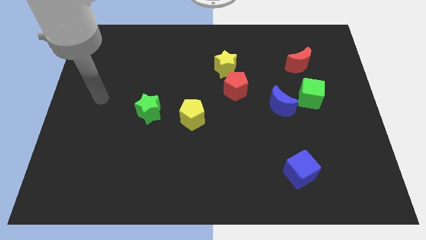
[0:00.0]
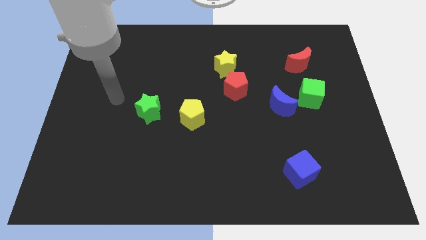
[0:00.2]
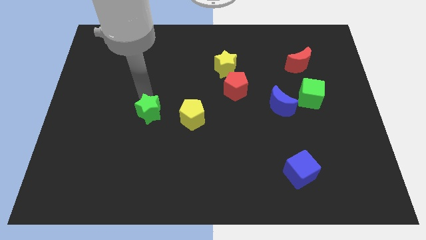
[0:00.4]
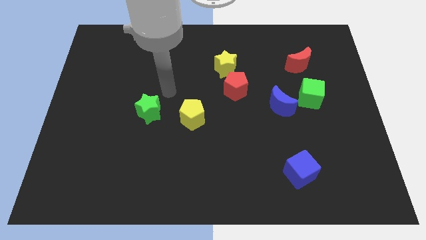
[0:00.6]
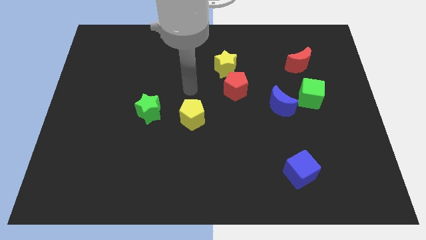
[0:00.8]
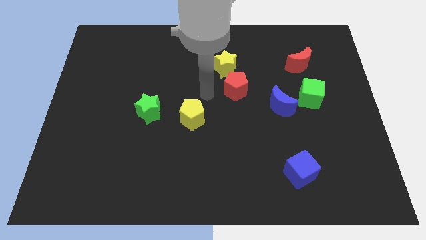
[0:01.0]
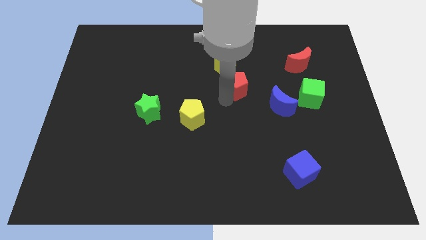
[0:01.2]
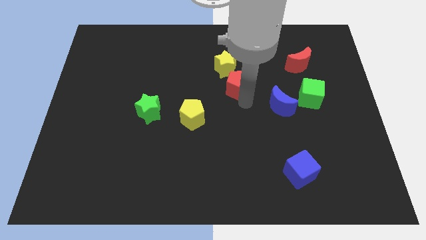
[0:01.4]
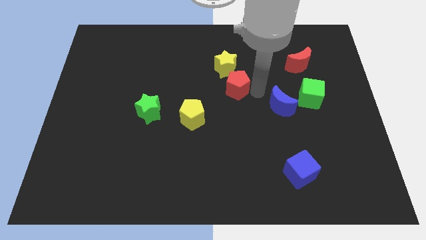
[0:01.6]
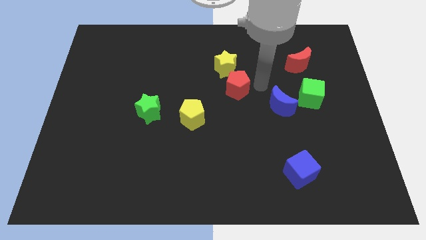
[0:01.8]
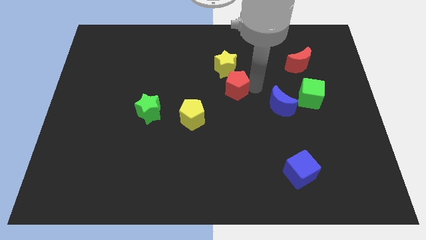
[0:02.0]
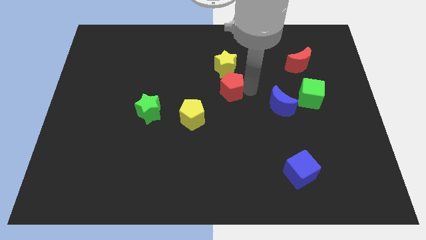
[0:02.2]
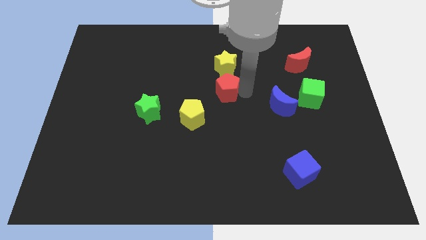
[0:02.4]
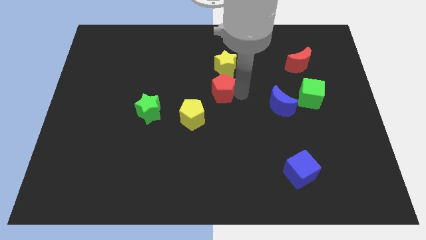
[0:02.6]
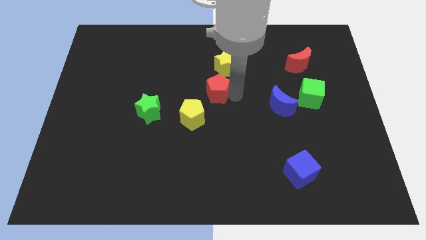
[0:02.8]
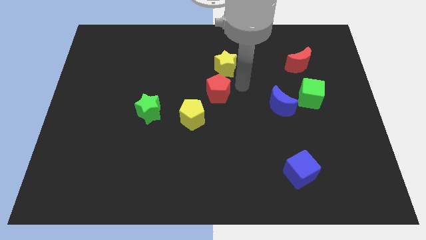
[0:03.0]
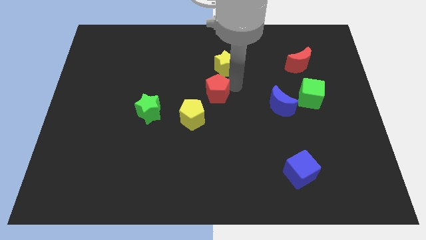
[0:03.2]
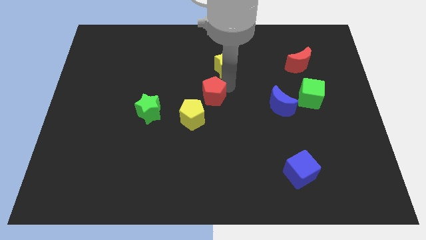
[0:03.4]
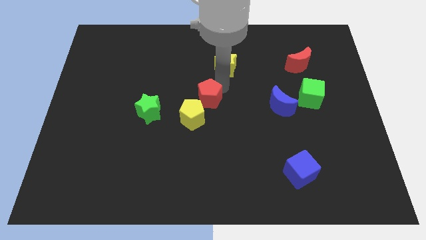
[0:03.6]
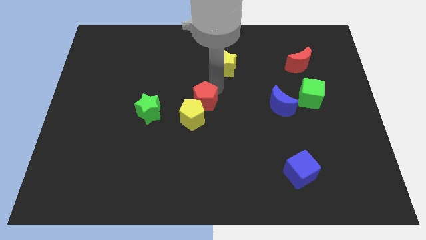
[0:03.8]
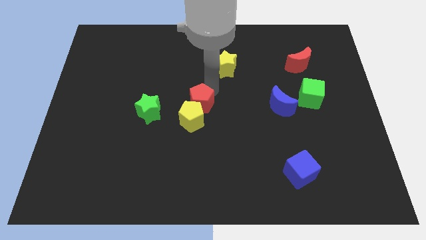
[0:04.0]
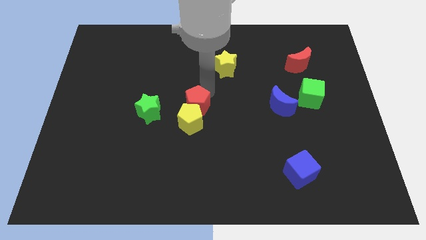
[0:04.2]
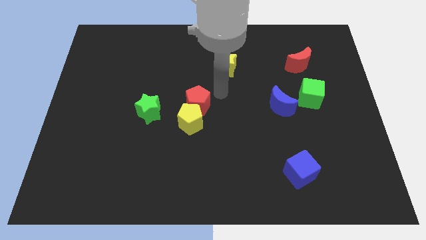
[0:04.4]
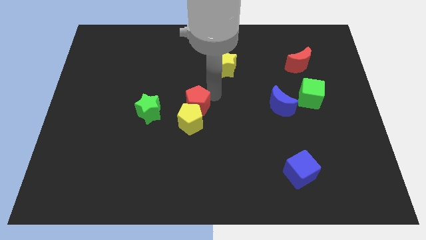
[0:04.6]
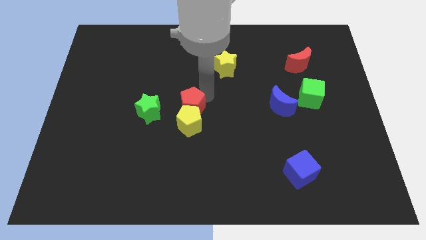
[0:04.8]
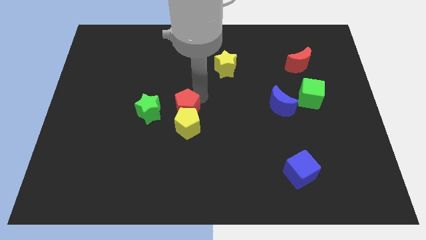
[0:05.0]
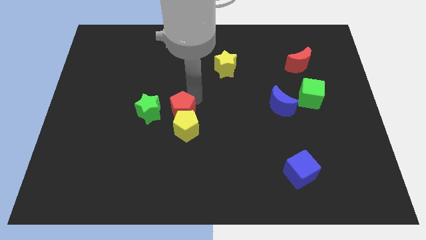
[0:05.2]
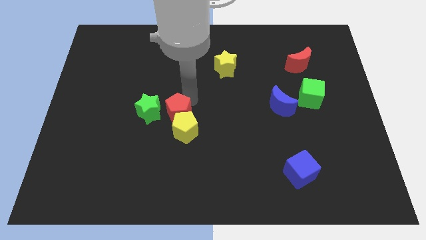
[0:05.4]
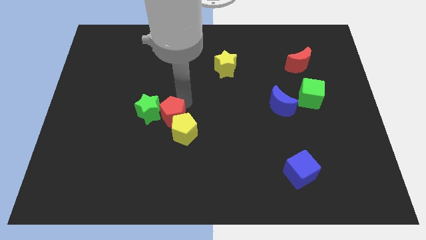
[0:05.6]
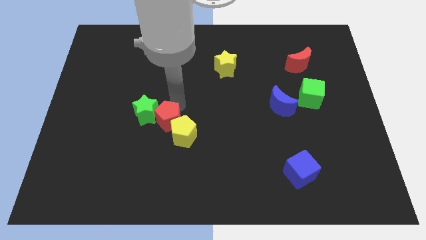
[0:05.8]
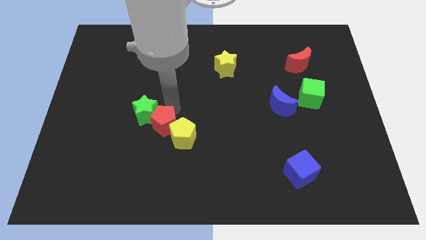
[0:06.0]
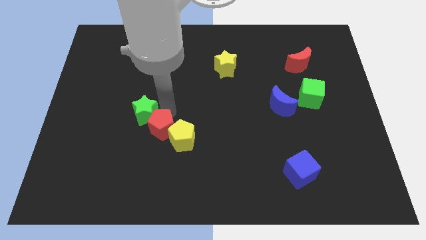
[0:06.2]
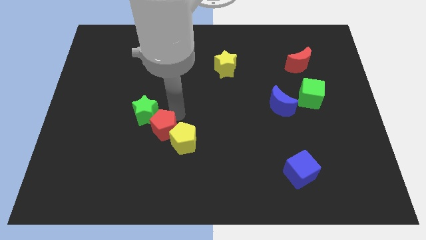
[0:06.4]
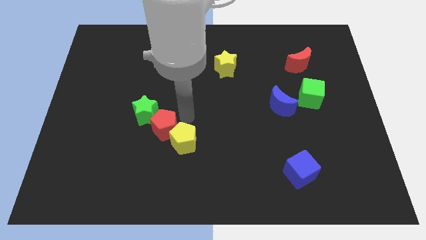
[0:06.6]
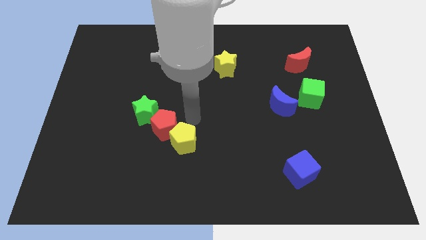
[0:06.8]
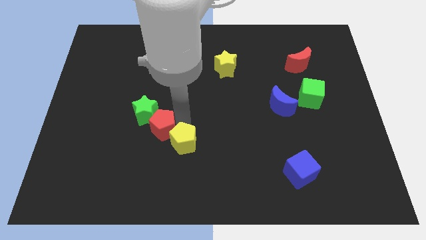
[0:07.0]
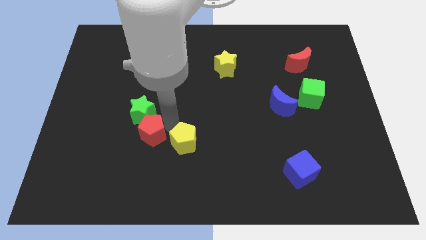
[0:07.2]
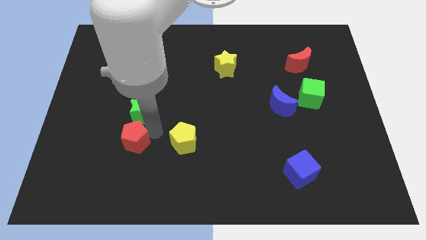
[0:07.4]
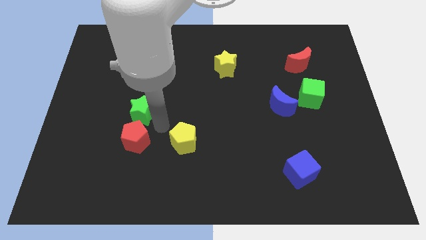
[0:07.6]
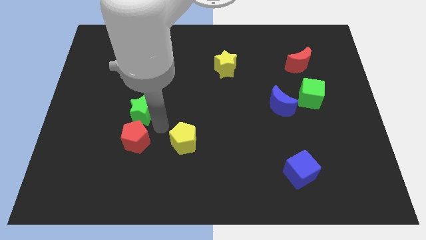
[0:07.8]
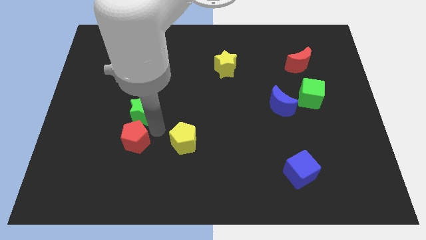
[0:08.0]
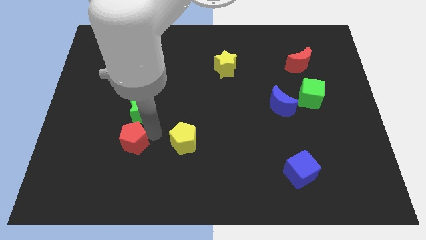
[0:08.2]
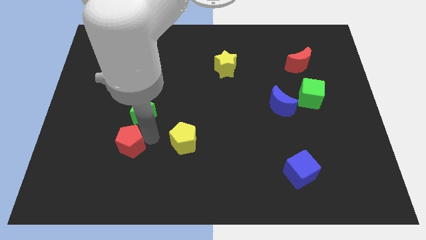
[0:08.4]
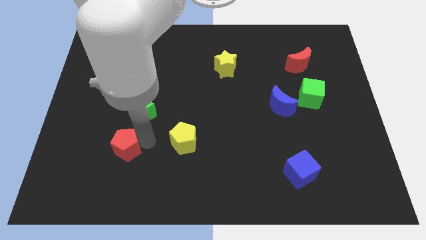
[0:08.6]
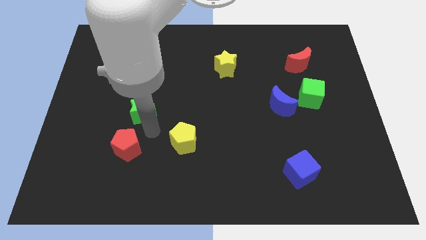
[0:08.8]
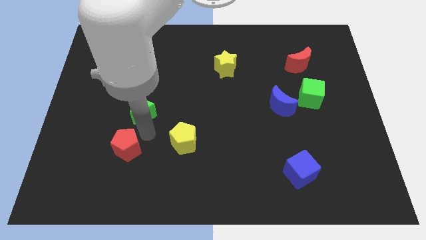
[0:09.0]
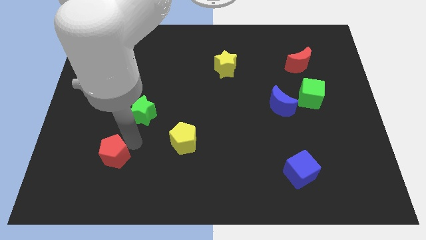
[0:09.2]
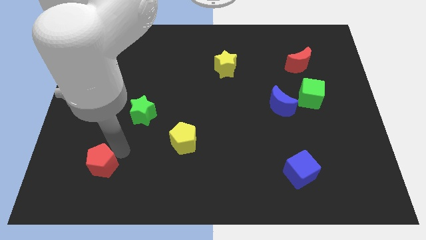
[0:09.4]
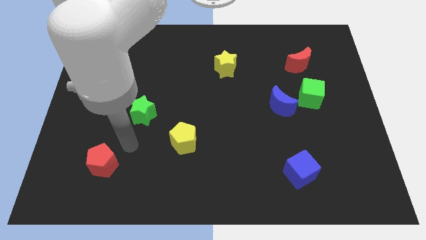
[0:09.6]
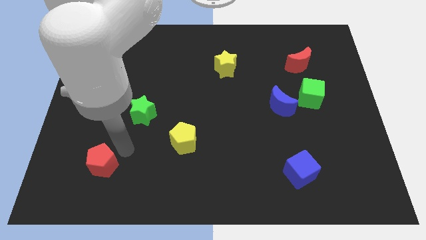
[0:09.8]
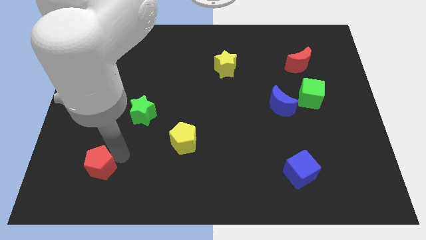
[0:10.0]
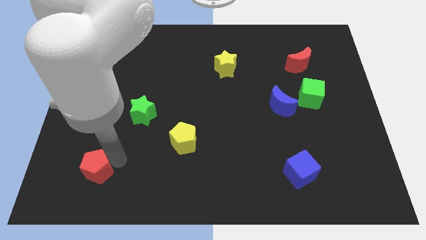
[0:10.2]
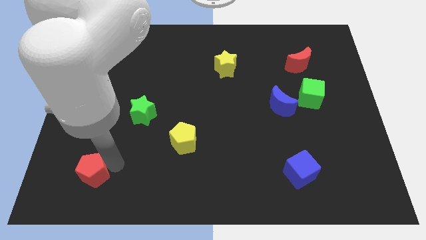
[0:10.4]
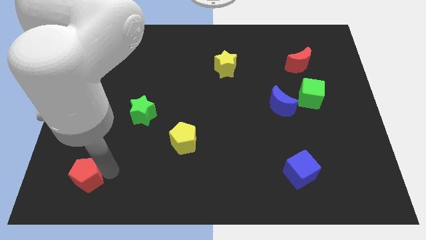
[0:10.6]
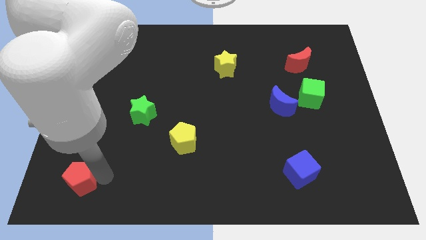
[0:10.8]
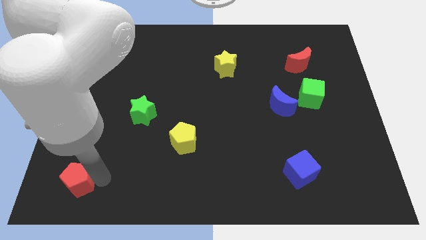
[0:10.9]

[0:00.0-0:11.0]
move the red pentagon to the bottom left of the board
